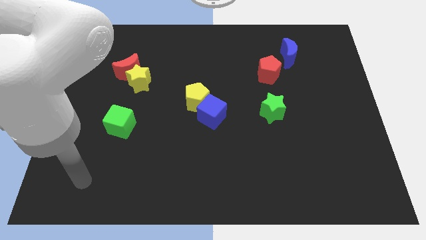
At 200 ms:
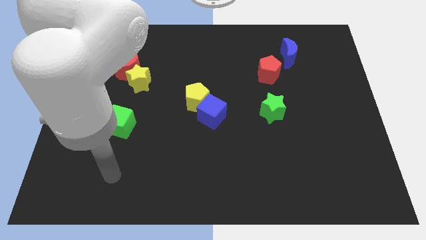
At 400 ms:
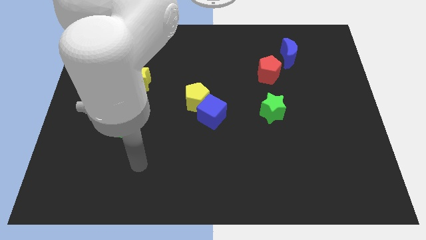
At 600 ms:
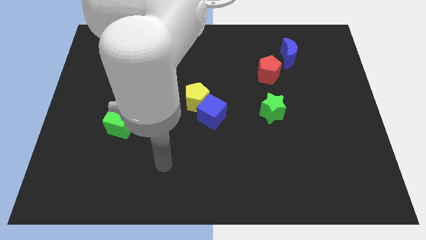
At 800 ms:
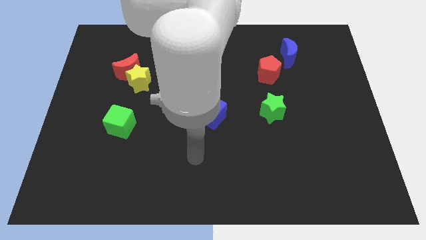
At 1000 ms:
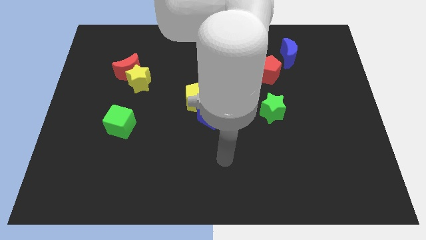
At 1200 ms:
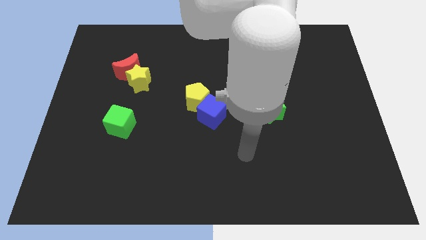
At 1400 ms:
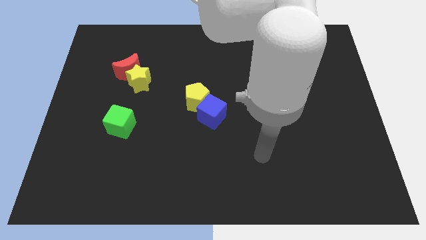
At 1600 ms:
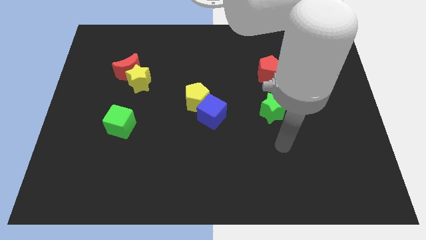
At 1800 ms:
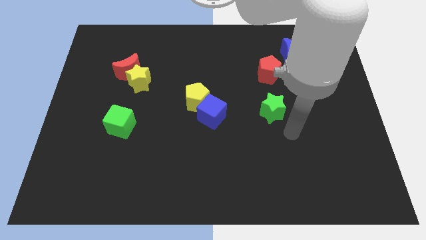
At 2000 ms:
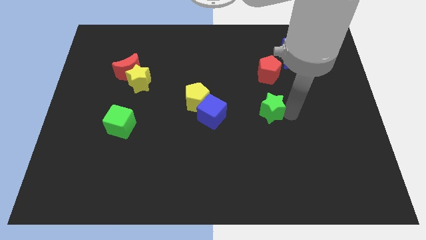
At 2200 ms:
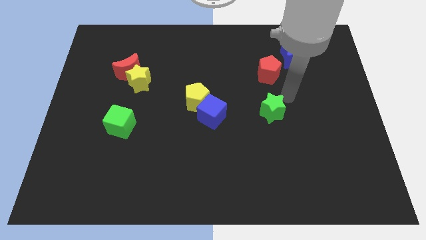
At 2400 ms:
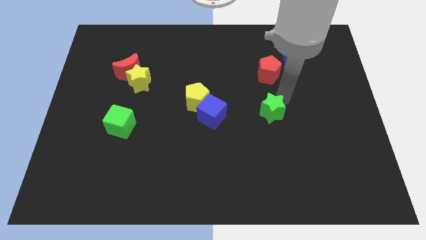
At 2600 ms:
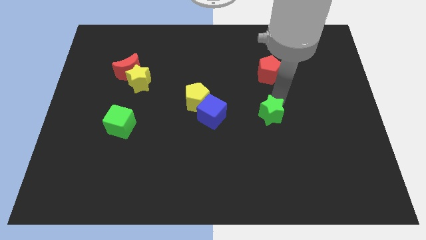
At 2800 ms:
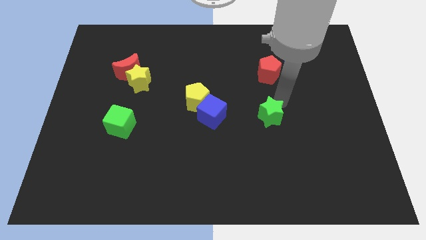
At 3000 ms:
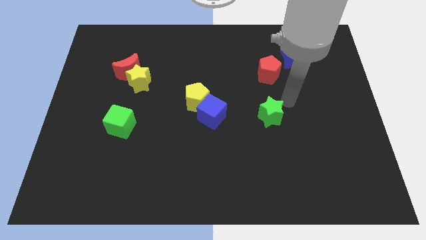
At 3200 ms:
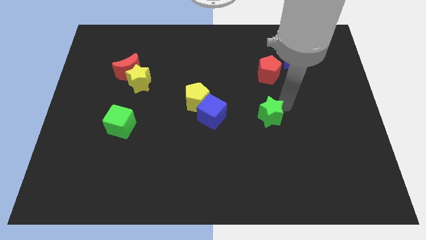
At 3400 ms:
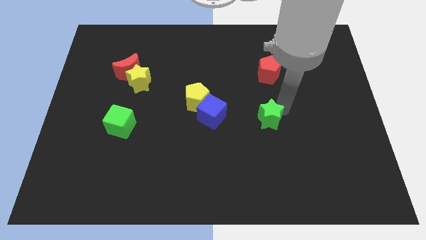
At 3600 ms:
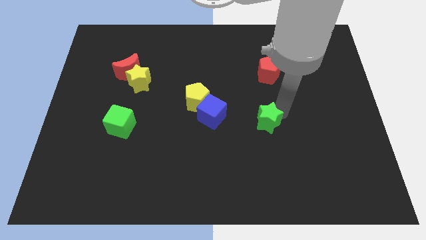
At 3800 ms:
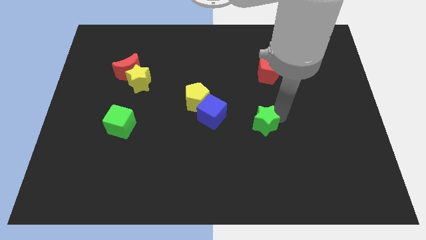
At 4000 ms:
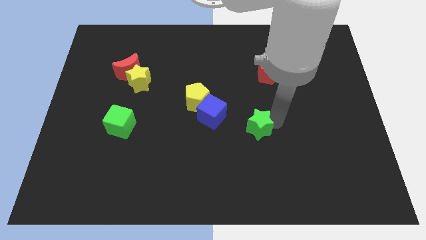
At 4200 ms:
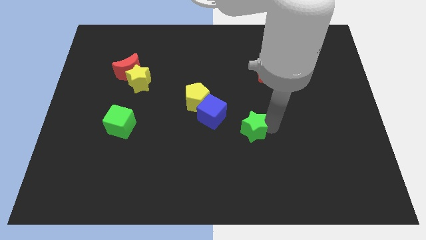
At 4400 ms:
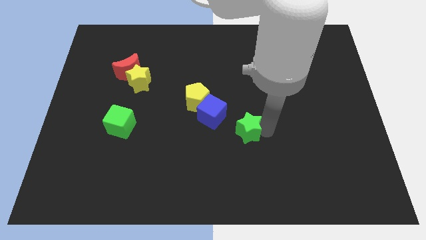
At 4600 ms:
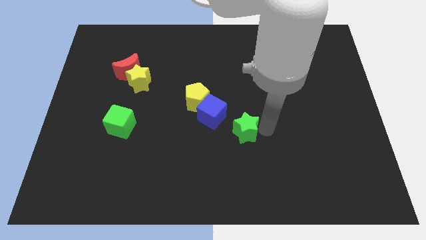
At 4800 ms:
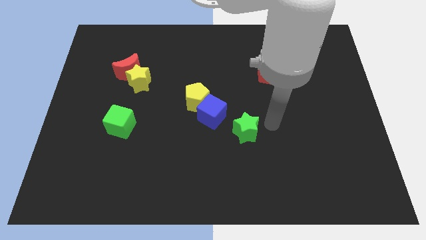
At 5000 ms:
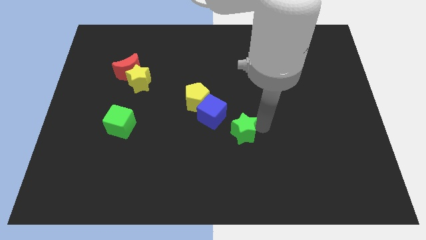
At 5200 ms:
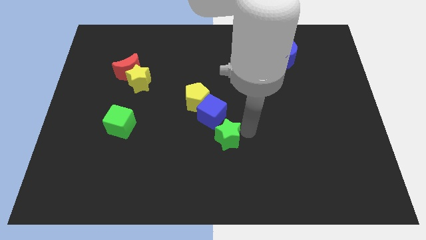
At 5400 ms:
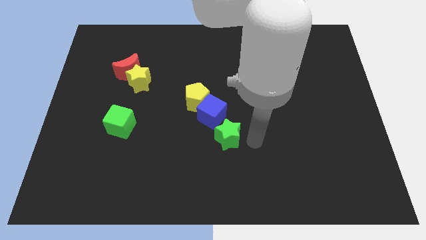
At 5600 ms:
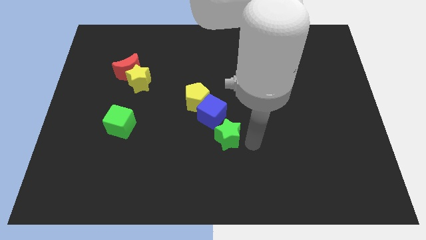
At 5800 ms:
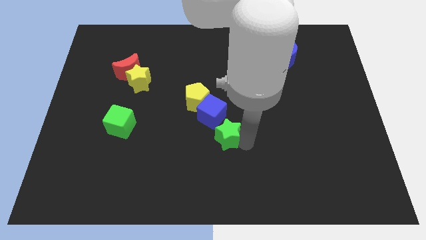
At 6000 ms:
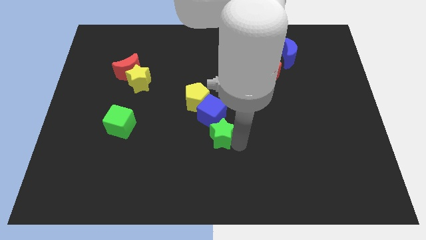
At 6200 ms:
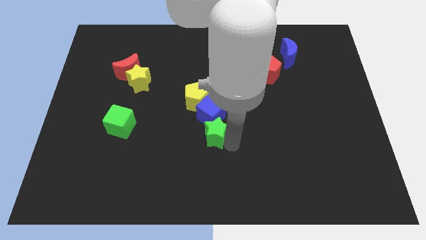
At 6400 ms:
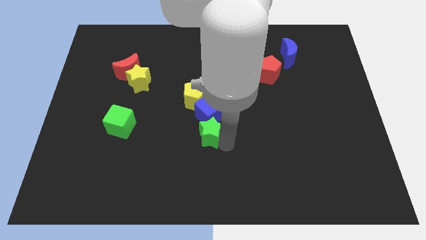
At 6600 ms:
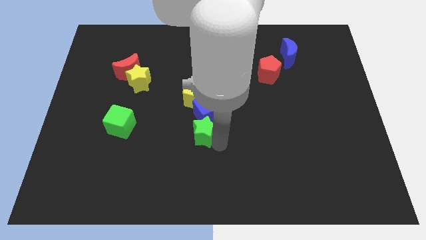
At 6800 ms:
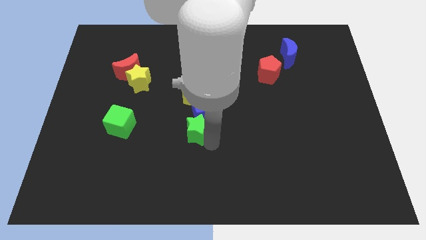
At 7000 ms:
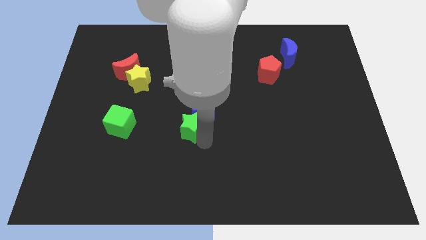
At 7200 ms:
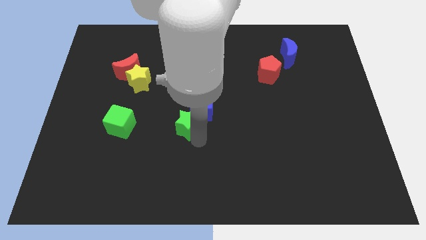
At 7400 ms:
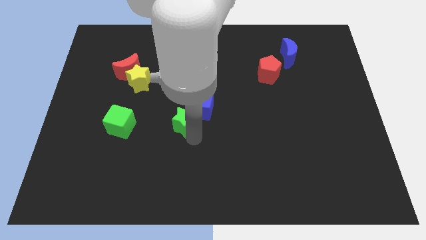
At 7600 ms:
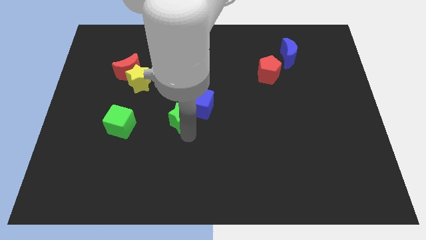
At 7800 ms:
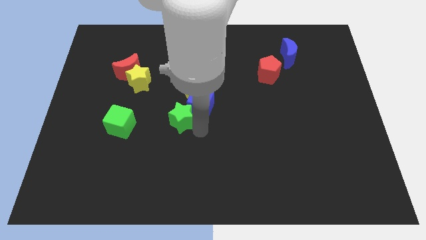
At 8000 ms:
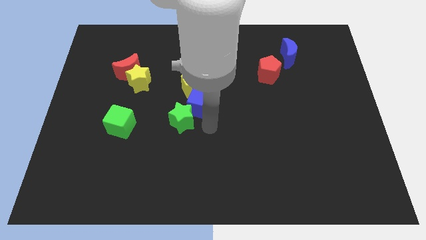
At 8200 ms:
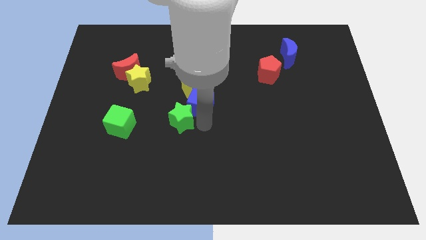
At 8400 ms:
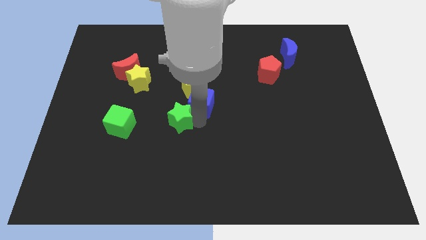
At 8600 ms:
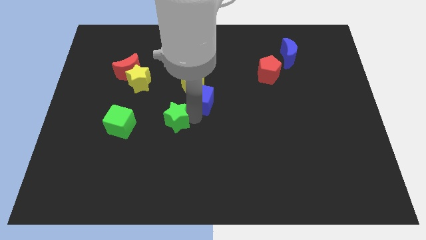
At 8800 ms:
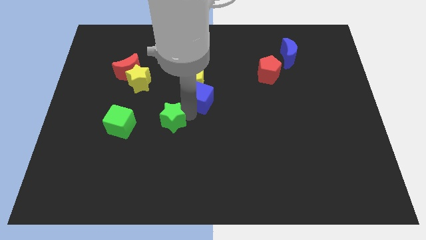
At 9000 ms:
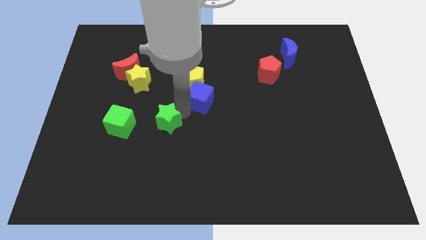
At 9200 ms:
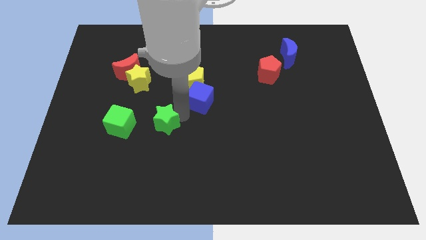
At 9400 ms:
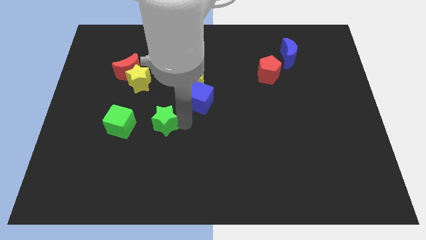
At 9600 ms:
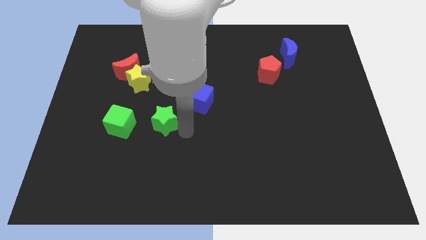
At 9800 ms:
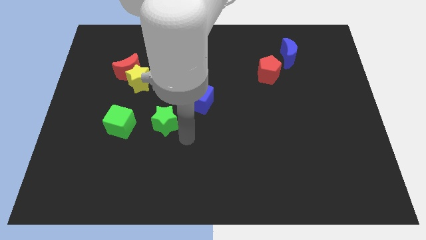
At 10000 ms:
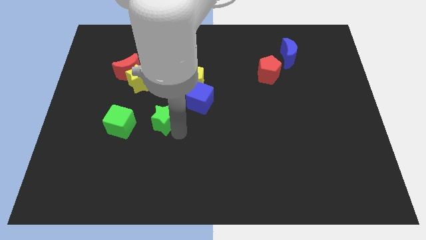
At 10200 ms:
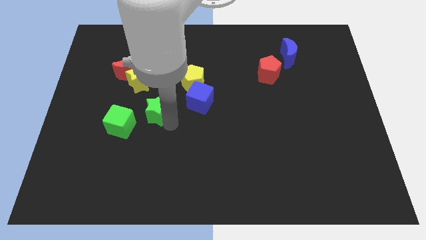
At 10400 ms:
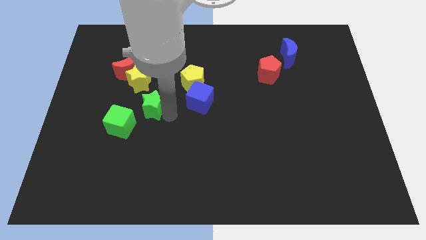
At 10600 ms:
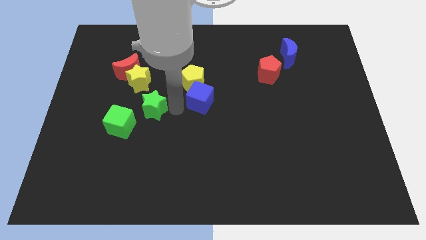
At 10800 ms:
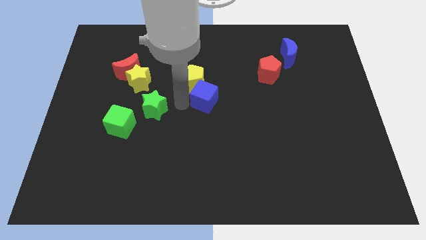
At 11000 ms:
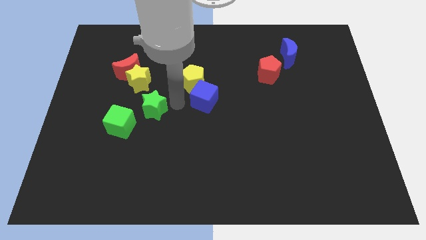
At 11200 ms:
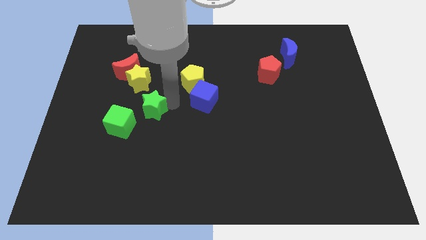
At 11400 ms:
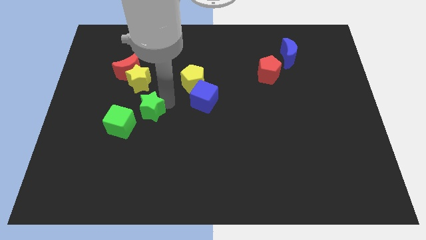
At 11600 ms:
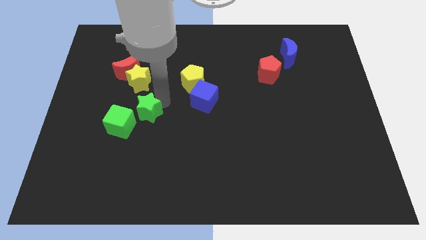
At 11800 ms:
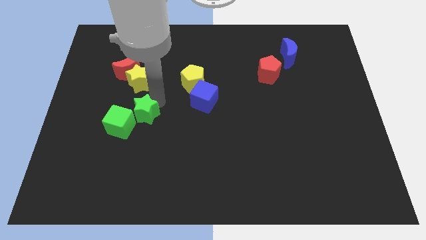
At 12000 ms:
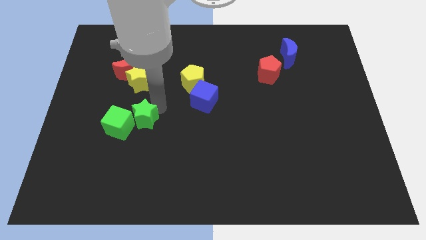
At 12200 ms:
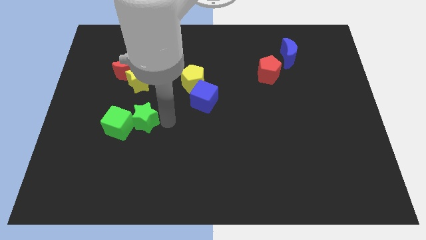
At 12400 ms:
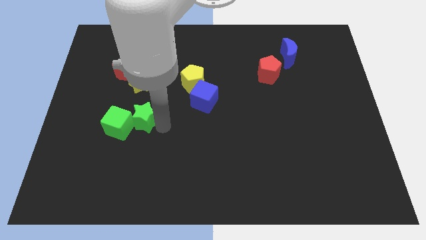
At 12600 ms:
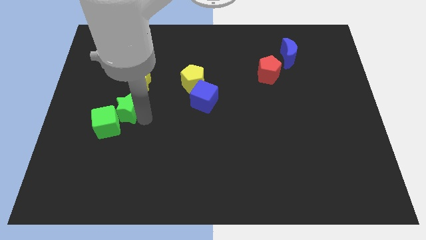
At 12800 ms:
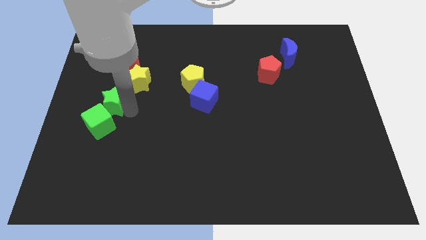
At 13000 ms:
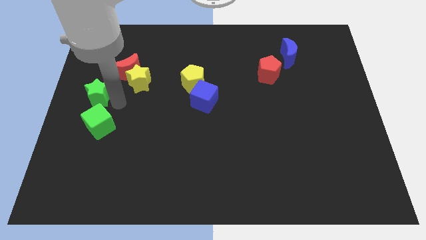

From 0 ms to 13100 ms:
move the green star to the left side

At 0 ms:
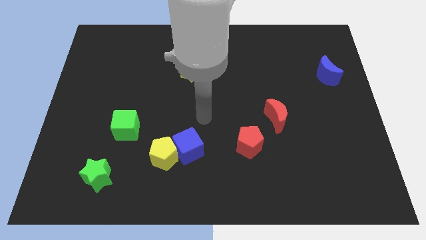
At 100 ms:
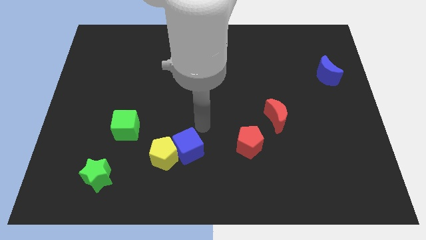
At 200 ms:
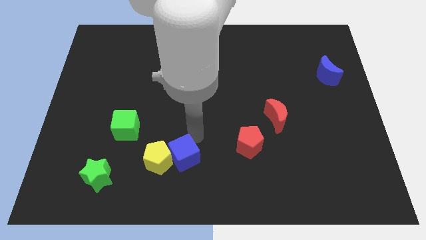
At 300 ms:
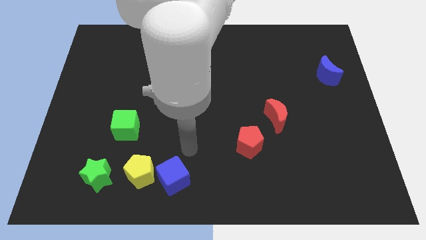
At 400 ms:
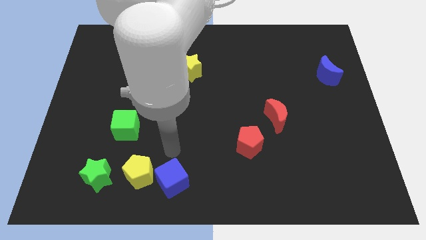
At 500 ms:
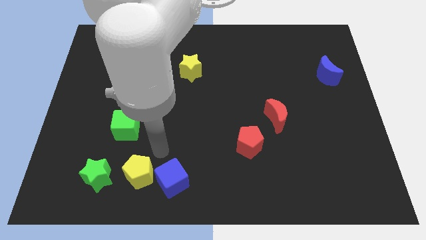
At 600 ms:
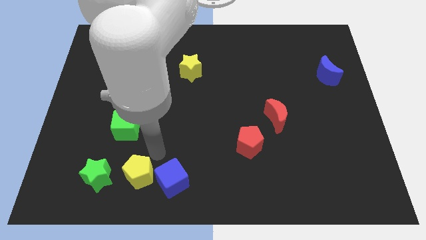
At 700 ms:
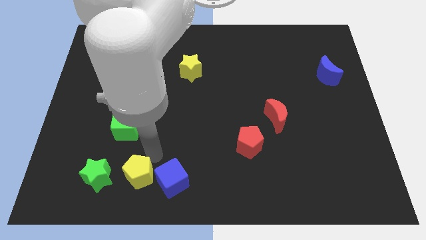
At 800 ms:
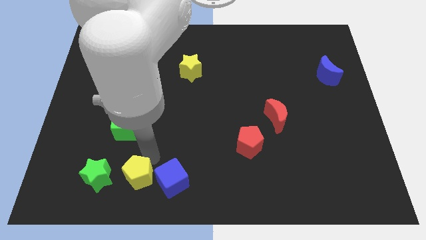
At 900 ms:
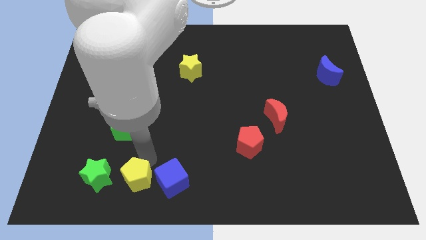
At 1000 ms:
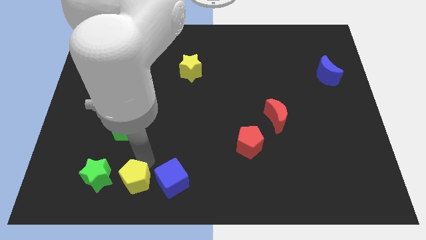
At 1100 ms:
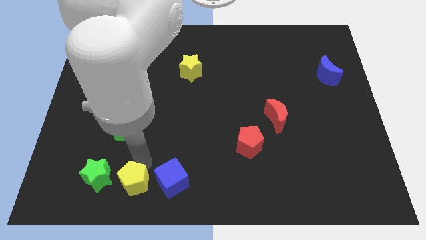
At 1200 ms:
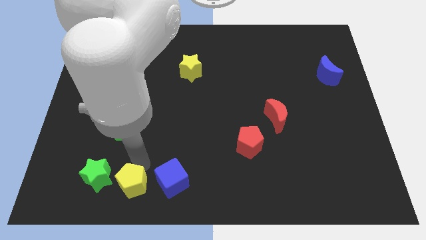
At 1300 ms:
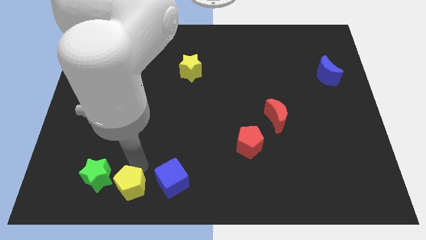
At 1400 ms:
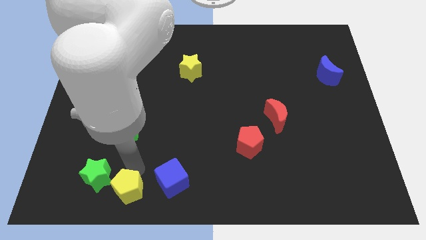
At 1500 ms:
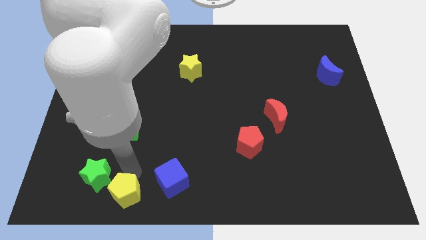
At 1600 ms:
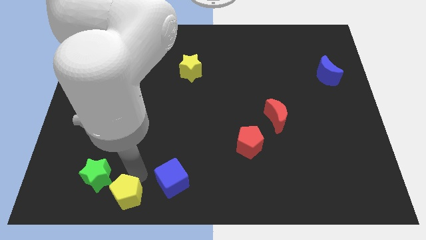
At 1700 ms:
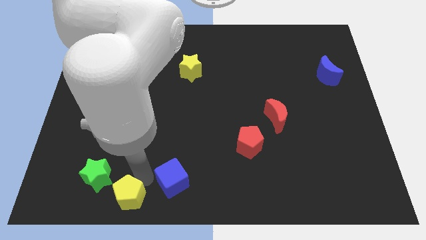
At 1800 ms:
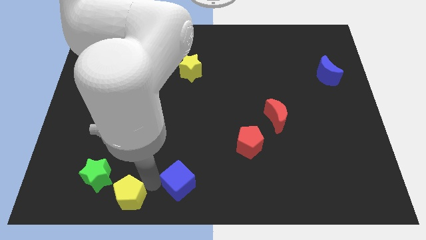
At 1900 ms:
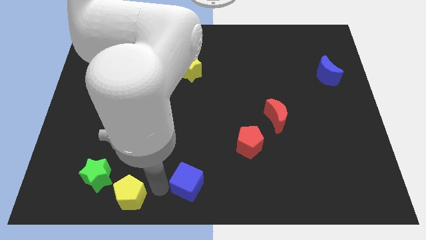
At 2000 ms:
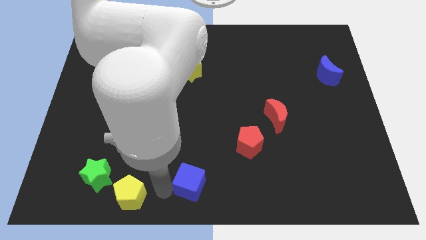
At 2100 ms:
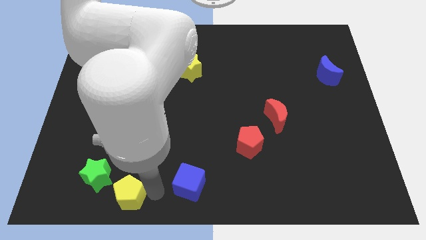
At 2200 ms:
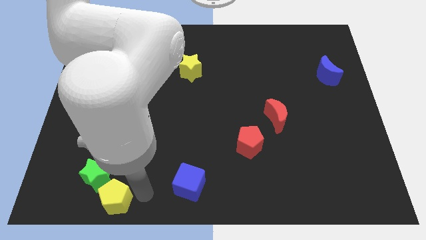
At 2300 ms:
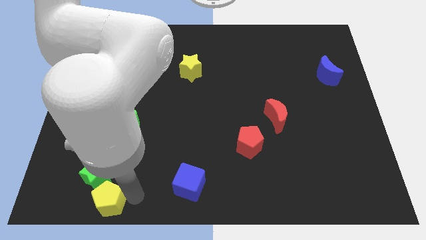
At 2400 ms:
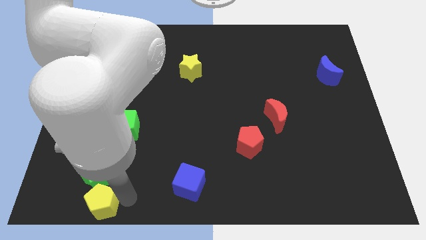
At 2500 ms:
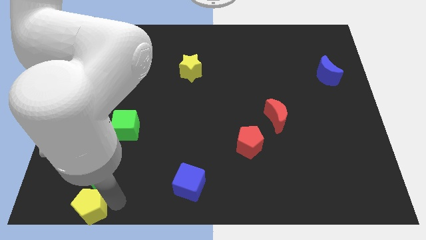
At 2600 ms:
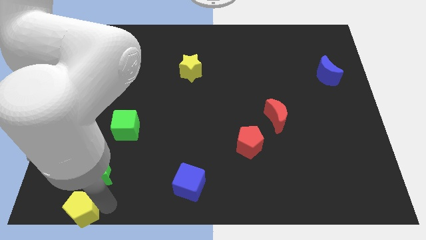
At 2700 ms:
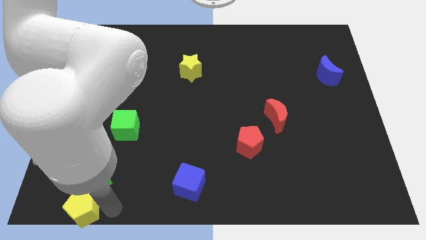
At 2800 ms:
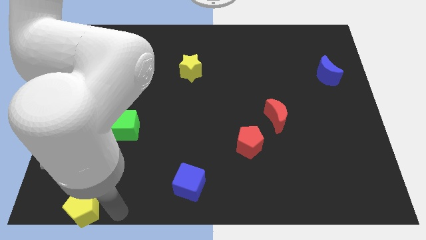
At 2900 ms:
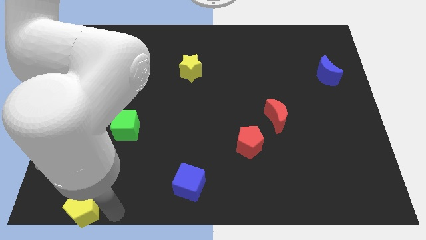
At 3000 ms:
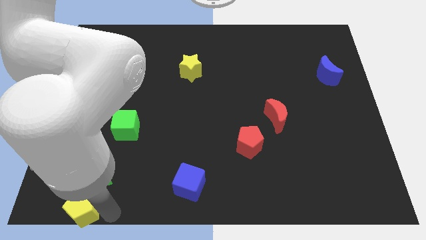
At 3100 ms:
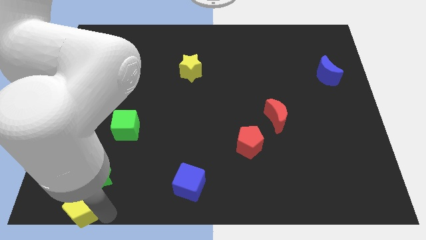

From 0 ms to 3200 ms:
push the yellow pentagon to the bottom left of the board
